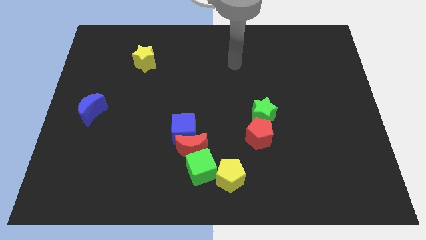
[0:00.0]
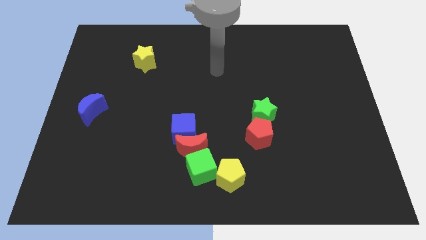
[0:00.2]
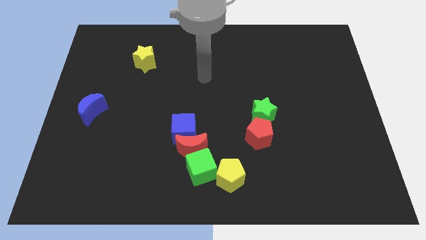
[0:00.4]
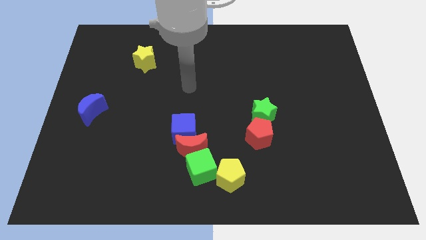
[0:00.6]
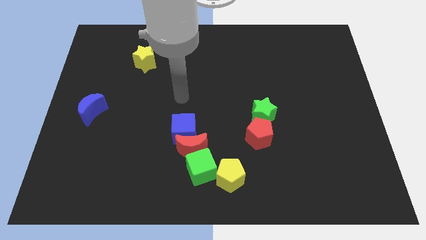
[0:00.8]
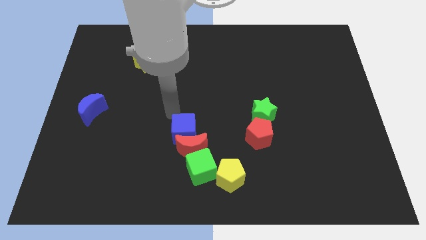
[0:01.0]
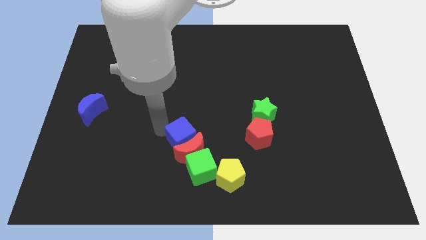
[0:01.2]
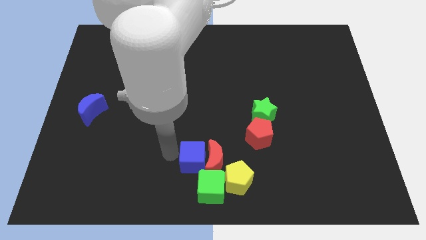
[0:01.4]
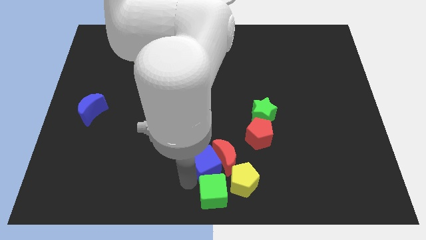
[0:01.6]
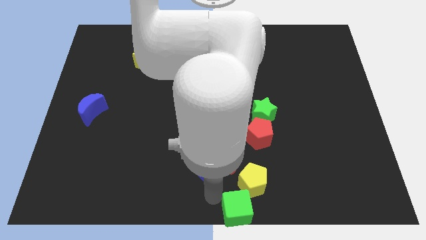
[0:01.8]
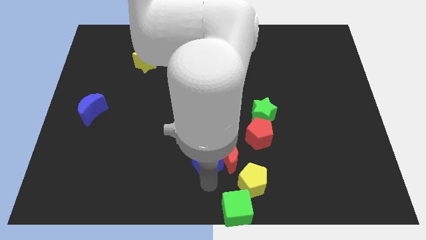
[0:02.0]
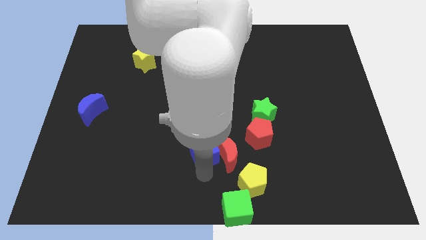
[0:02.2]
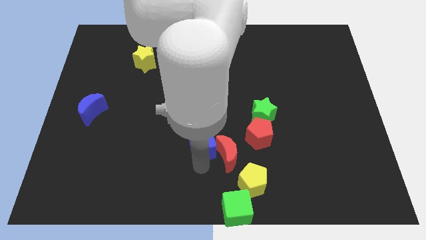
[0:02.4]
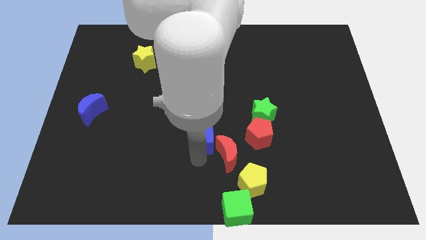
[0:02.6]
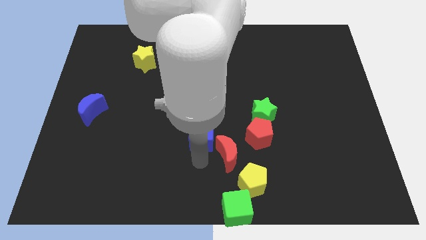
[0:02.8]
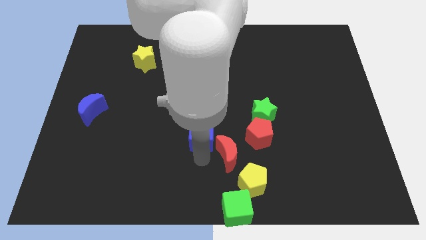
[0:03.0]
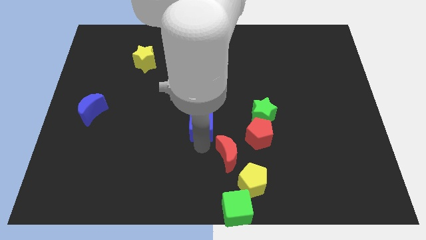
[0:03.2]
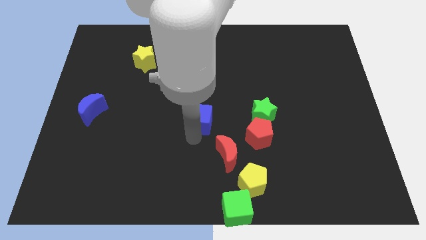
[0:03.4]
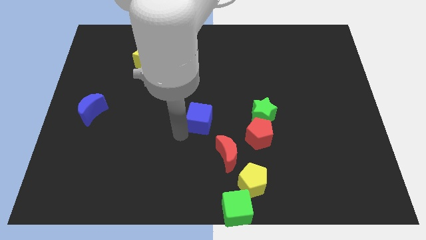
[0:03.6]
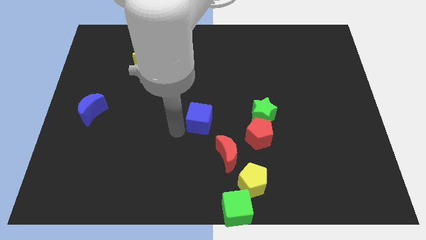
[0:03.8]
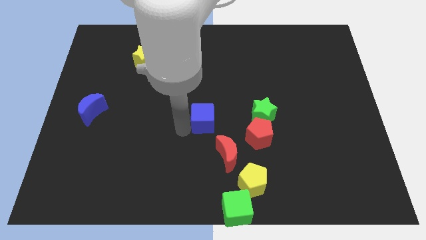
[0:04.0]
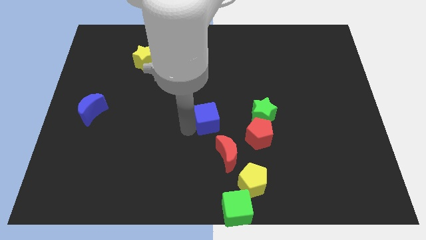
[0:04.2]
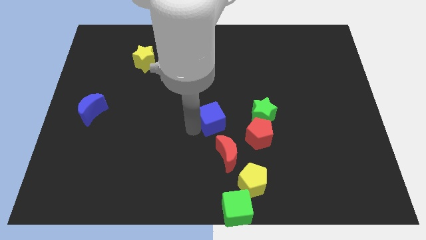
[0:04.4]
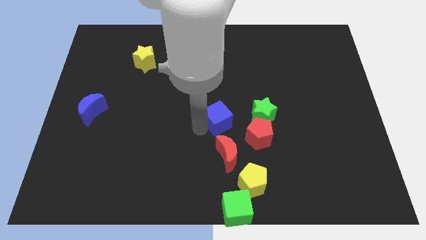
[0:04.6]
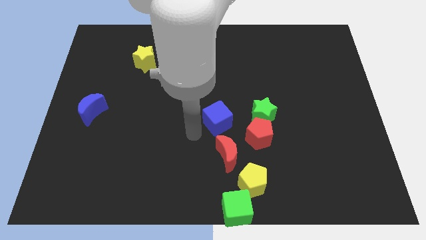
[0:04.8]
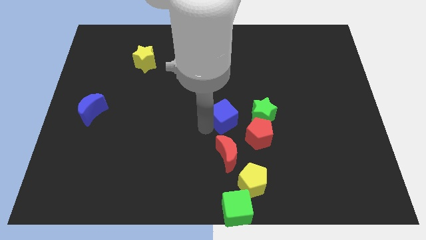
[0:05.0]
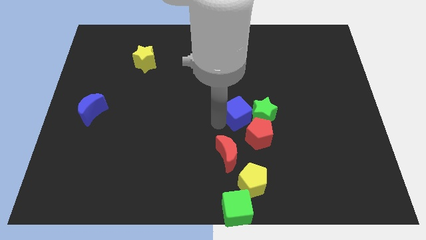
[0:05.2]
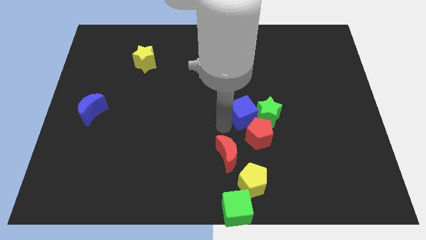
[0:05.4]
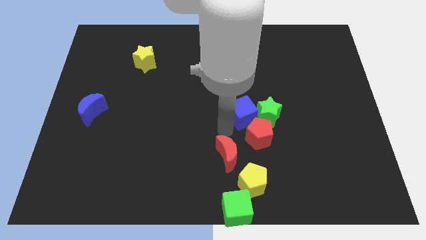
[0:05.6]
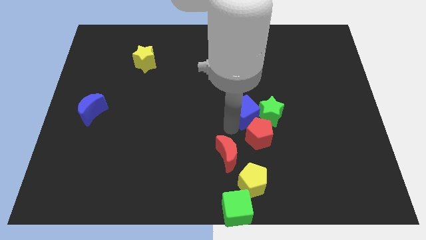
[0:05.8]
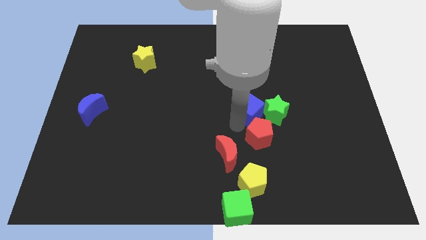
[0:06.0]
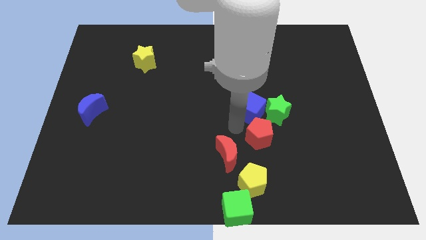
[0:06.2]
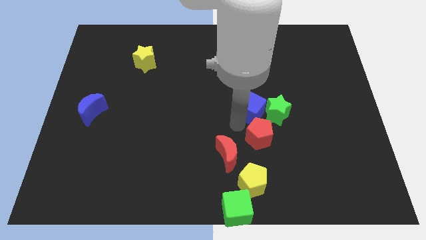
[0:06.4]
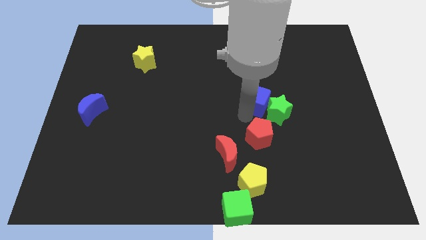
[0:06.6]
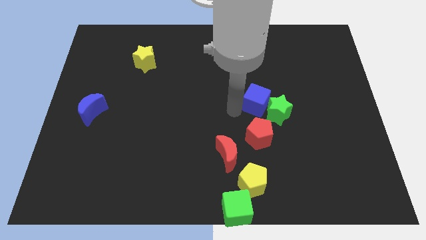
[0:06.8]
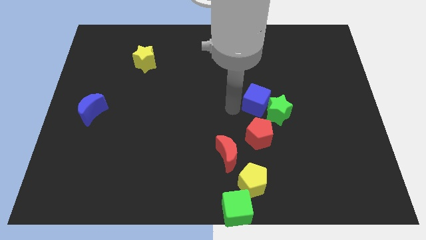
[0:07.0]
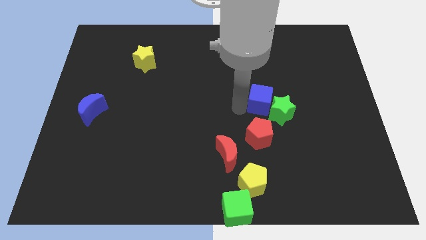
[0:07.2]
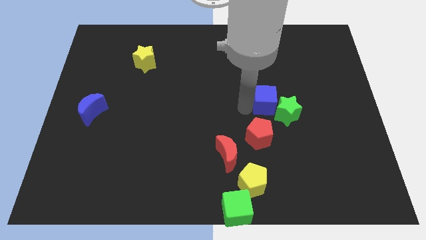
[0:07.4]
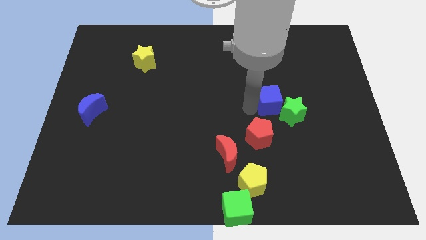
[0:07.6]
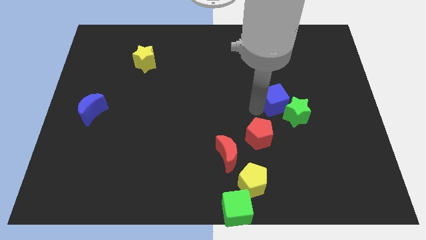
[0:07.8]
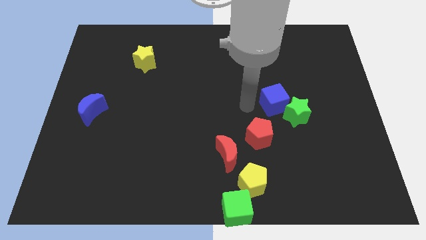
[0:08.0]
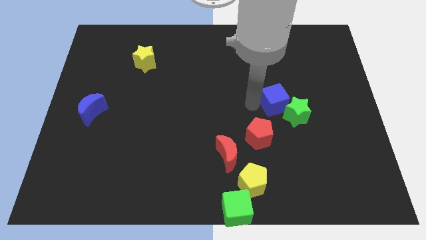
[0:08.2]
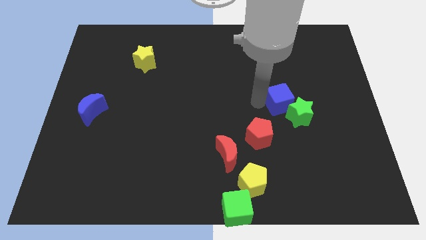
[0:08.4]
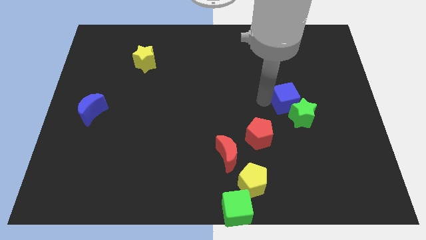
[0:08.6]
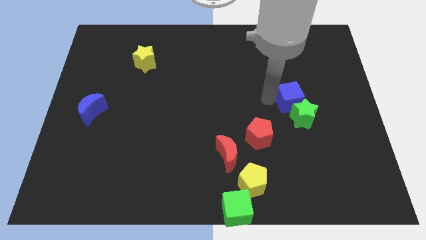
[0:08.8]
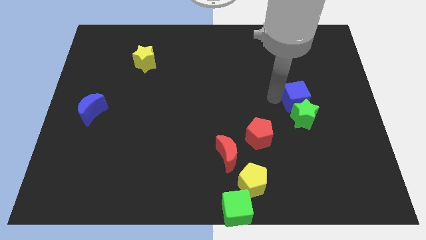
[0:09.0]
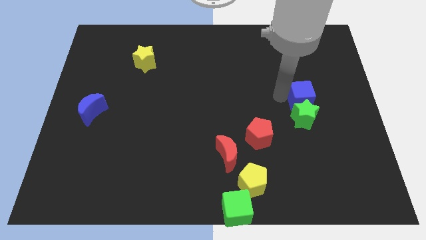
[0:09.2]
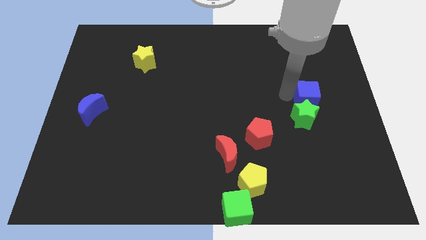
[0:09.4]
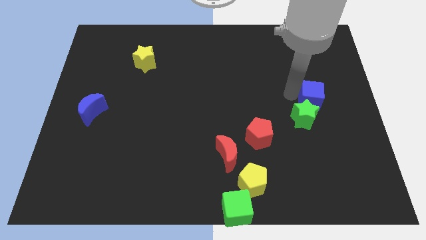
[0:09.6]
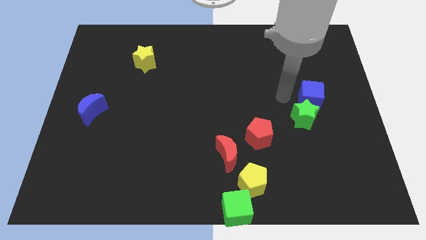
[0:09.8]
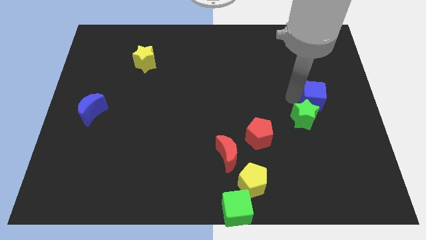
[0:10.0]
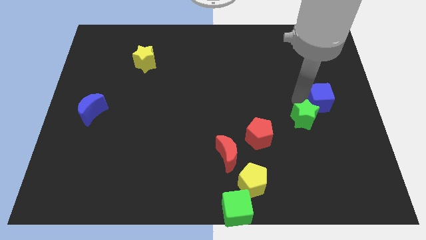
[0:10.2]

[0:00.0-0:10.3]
slide the blue cube to the right side of the board
